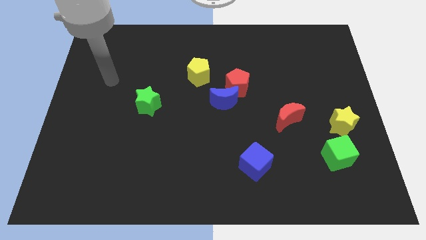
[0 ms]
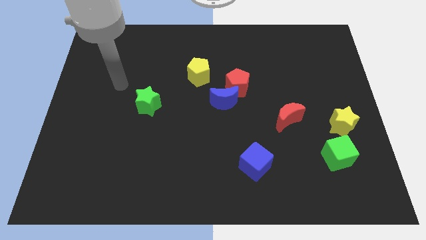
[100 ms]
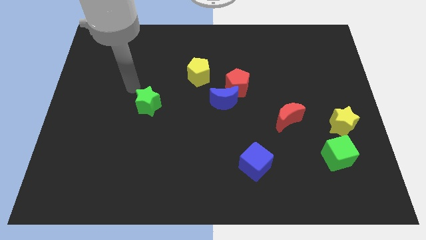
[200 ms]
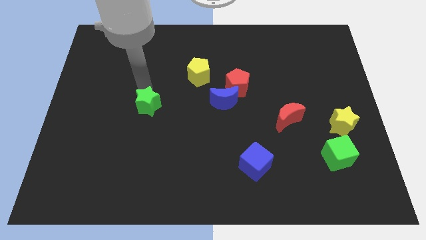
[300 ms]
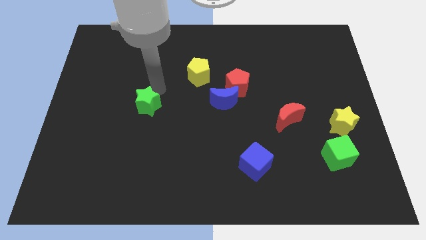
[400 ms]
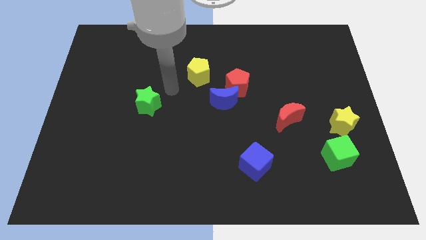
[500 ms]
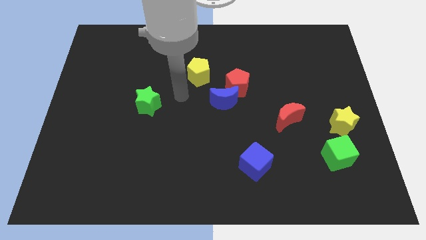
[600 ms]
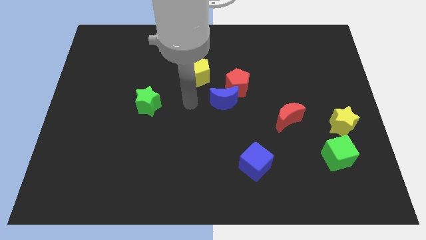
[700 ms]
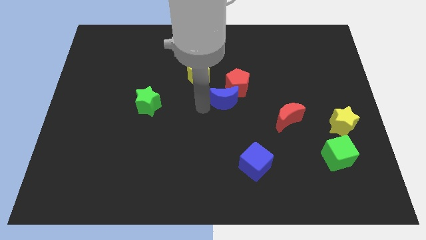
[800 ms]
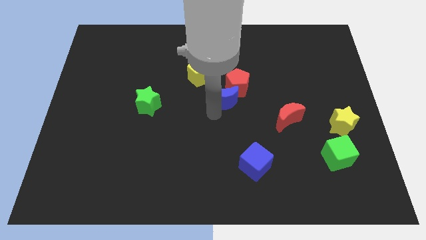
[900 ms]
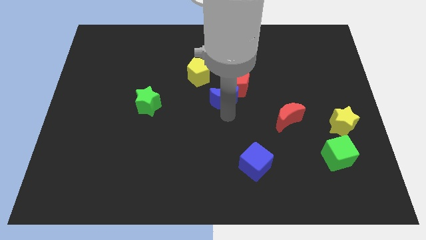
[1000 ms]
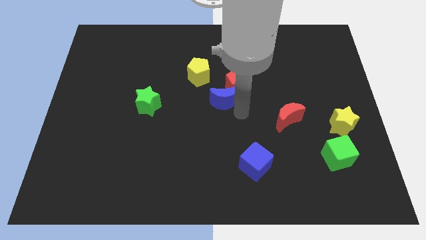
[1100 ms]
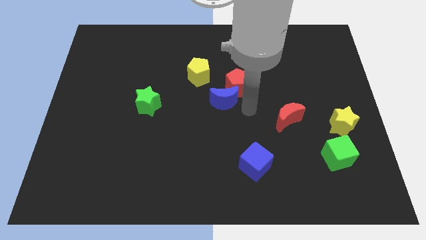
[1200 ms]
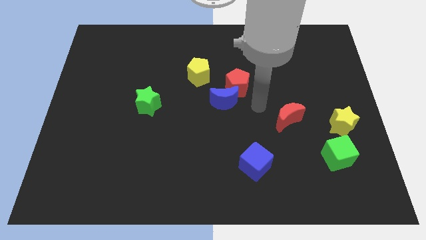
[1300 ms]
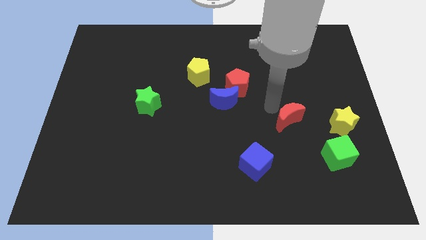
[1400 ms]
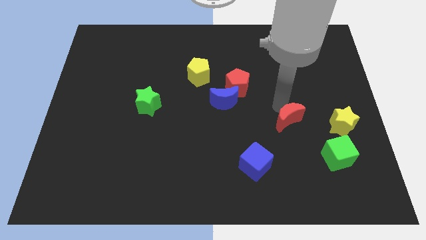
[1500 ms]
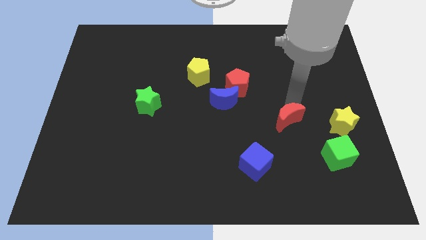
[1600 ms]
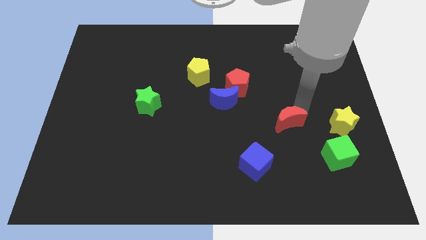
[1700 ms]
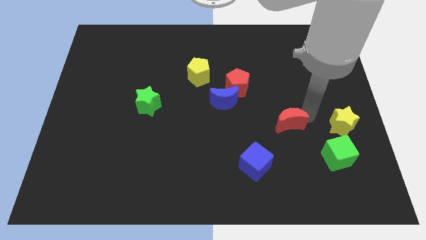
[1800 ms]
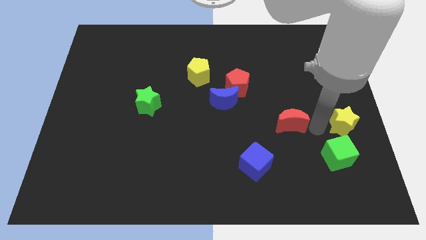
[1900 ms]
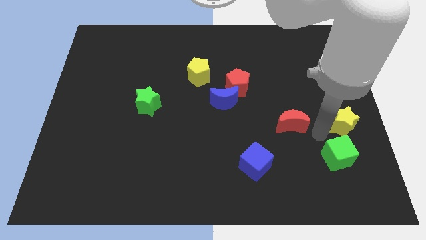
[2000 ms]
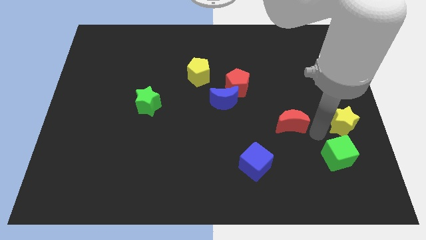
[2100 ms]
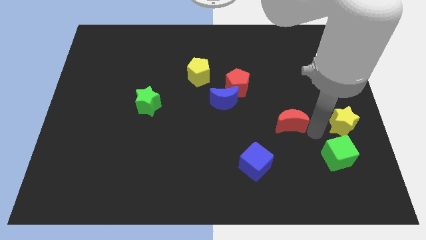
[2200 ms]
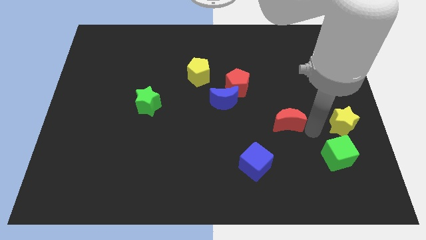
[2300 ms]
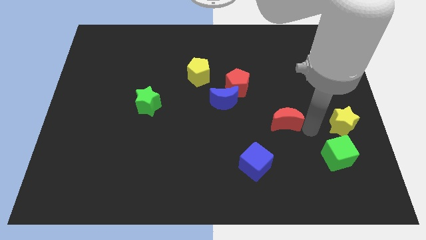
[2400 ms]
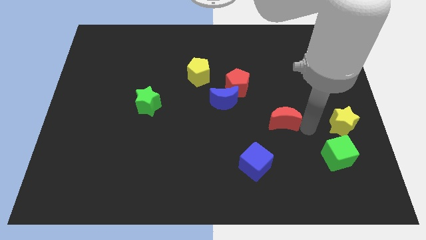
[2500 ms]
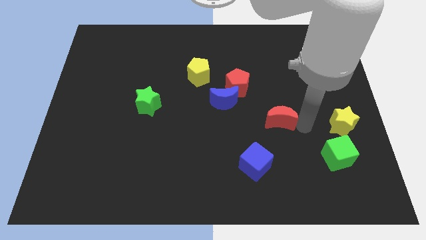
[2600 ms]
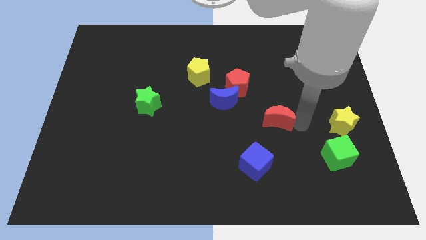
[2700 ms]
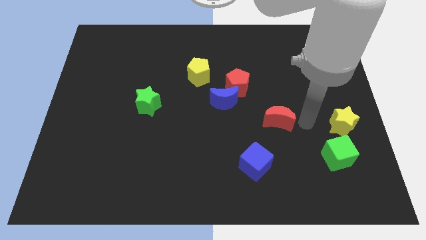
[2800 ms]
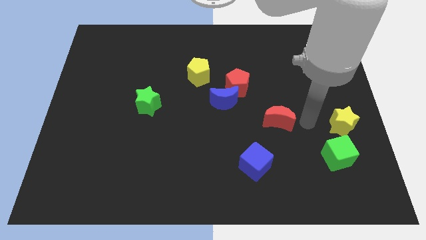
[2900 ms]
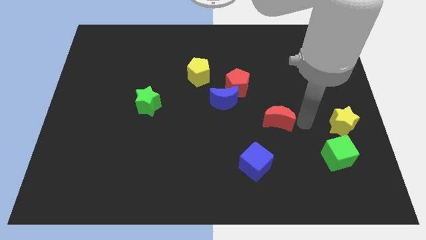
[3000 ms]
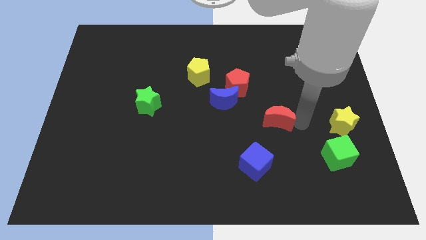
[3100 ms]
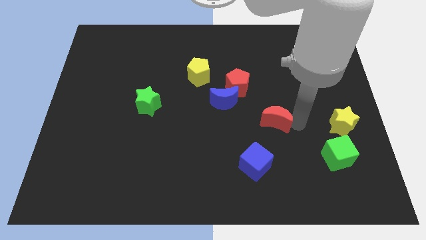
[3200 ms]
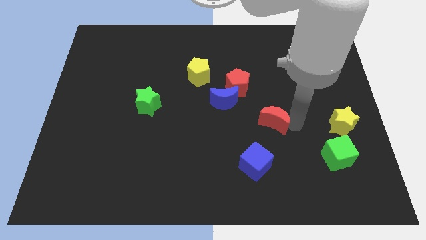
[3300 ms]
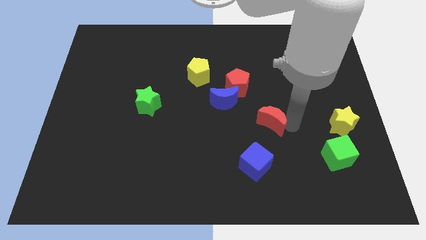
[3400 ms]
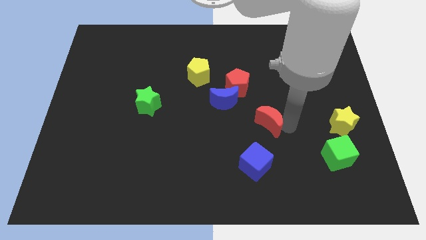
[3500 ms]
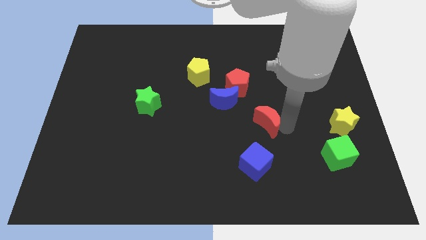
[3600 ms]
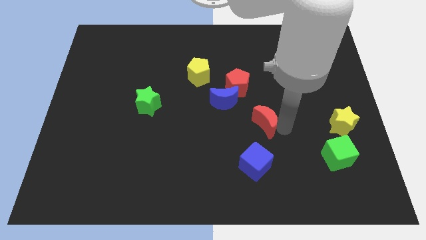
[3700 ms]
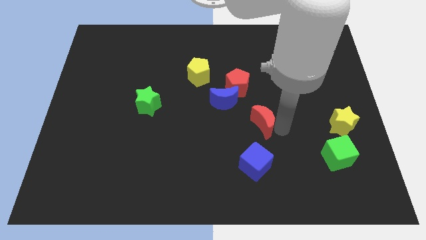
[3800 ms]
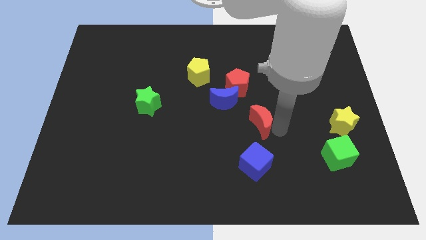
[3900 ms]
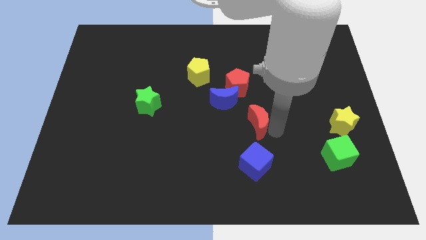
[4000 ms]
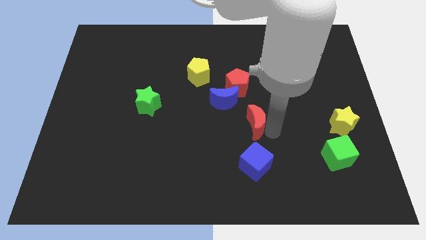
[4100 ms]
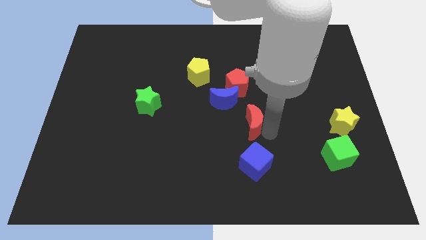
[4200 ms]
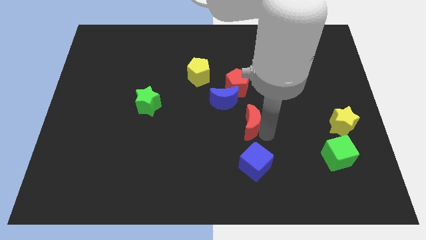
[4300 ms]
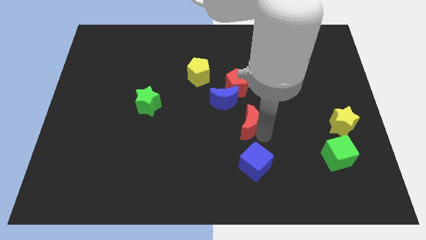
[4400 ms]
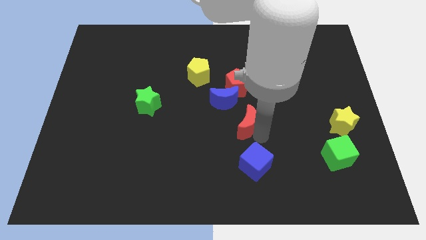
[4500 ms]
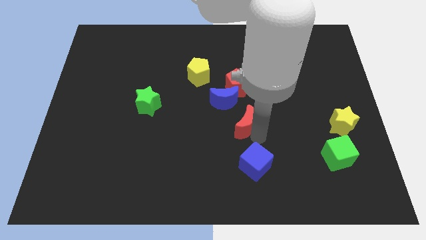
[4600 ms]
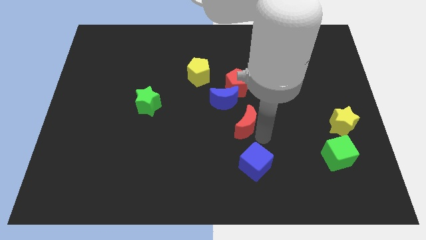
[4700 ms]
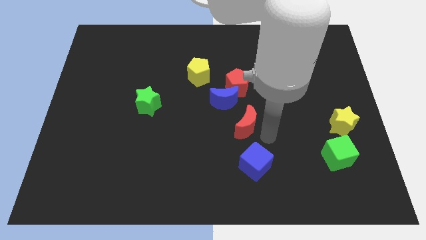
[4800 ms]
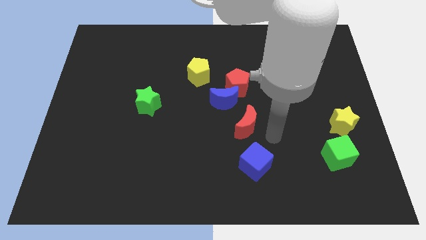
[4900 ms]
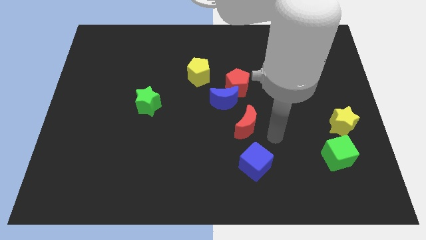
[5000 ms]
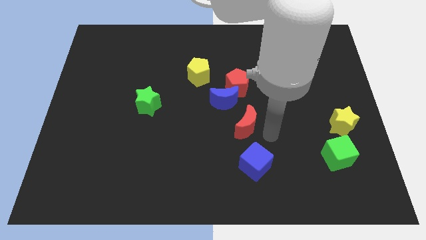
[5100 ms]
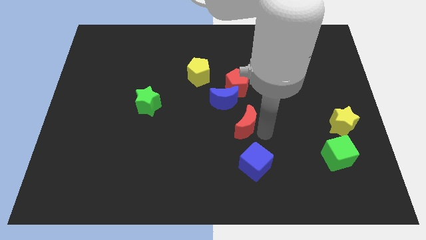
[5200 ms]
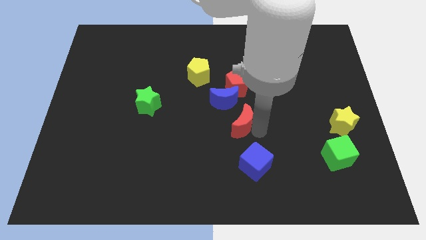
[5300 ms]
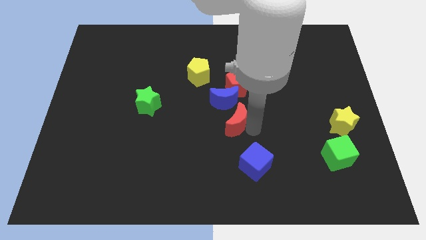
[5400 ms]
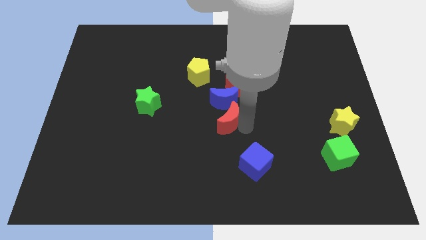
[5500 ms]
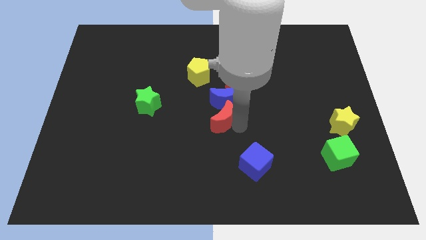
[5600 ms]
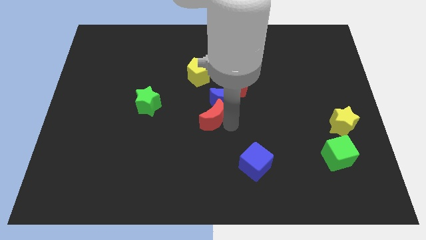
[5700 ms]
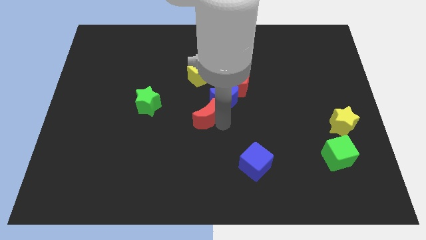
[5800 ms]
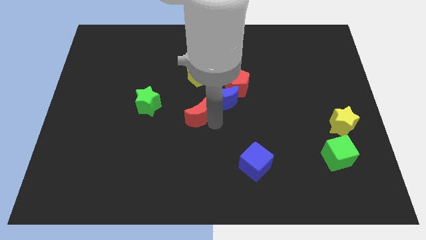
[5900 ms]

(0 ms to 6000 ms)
put the red moon right of the green star
